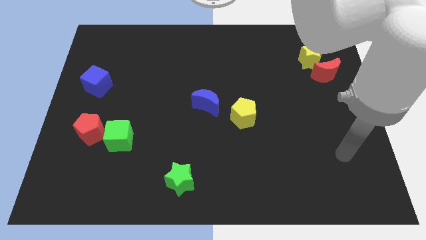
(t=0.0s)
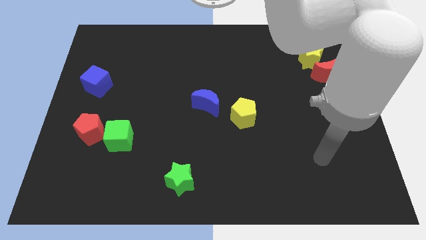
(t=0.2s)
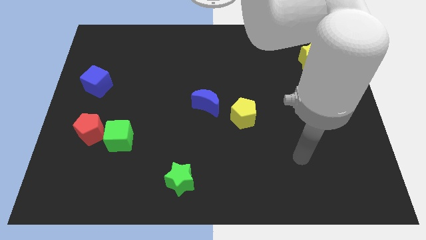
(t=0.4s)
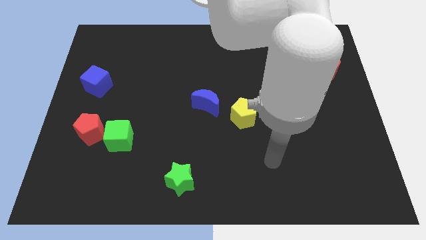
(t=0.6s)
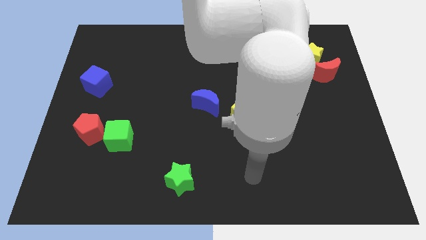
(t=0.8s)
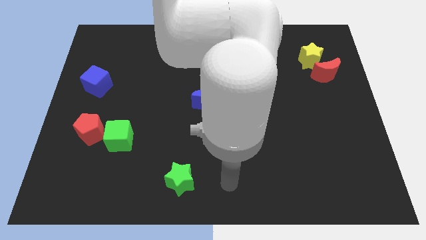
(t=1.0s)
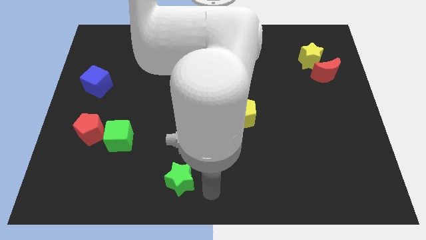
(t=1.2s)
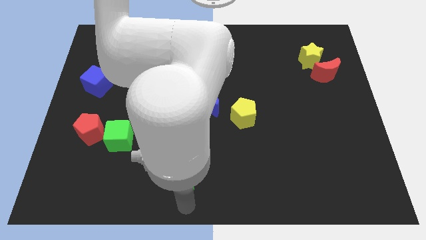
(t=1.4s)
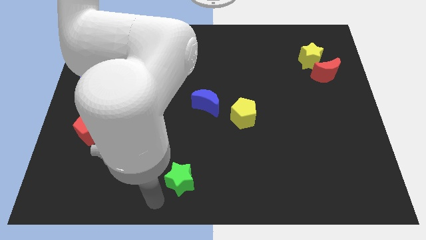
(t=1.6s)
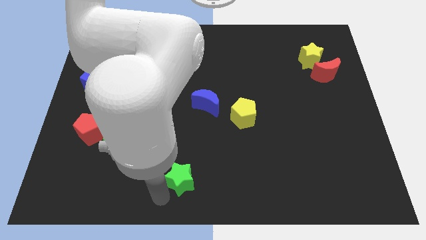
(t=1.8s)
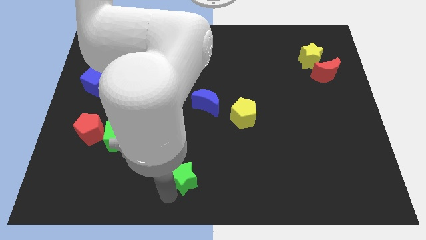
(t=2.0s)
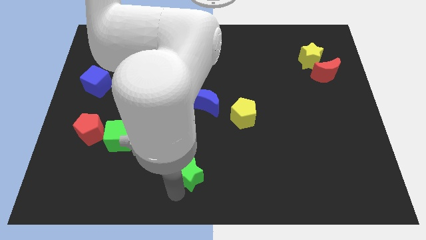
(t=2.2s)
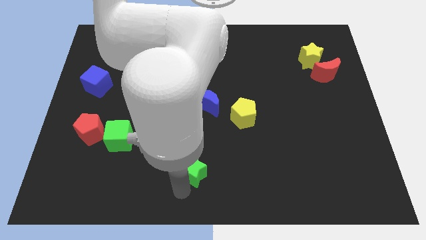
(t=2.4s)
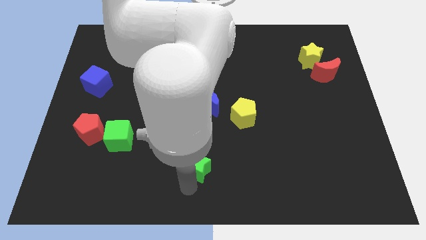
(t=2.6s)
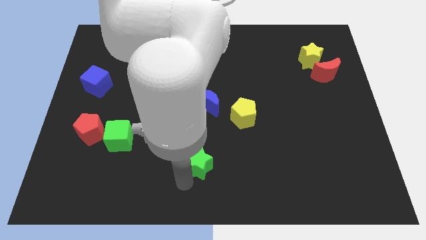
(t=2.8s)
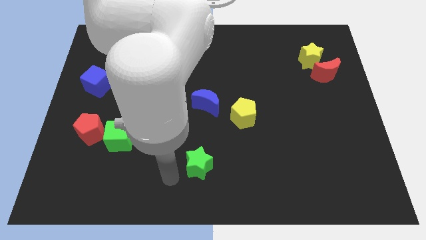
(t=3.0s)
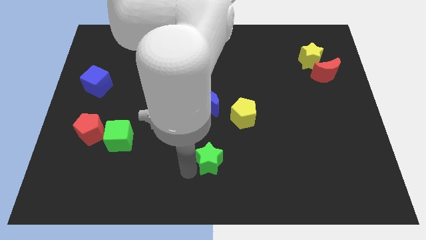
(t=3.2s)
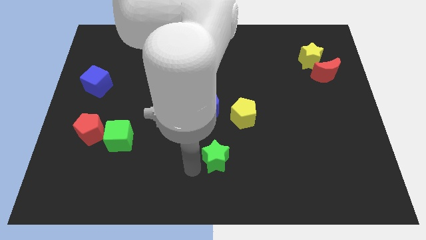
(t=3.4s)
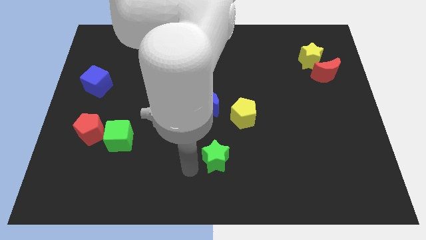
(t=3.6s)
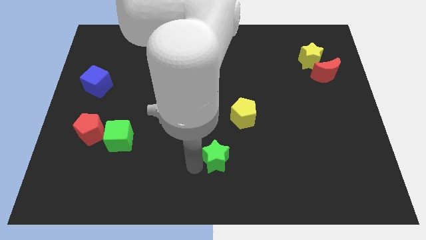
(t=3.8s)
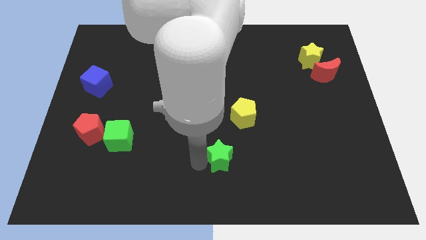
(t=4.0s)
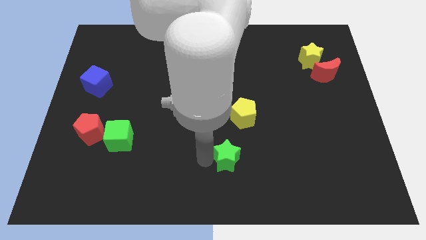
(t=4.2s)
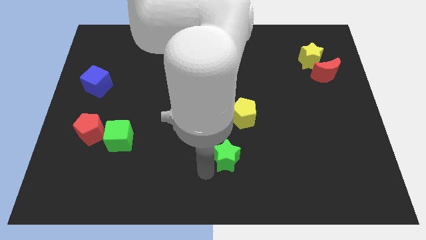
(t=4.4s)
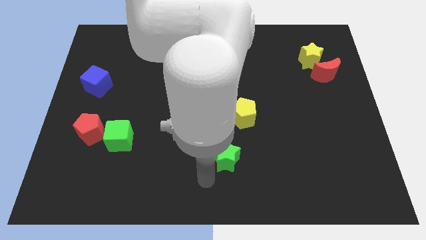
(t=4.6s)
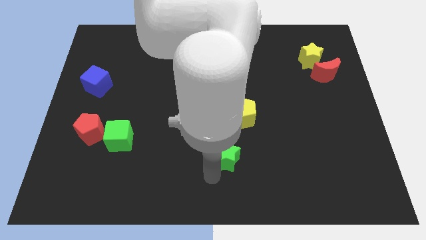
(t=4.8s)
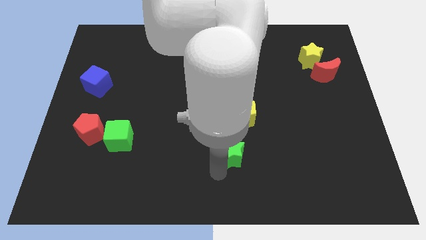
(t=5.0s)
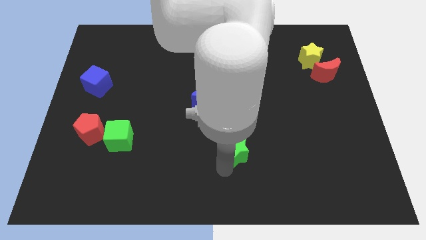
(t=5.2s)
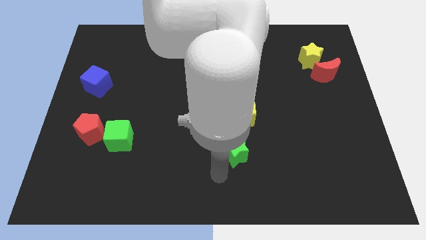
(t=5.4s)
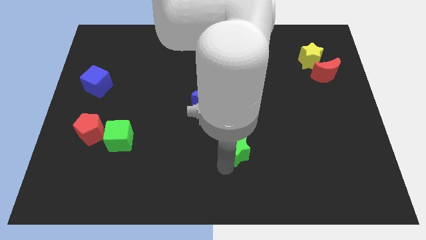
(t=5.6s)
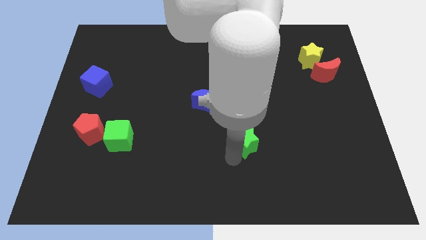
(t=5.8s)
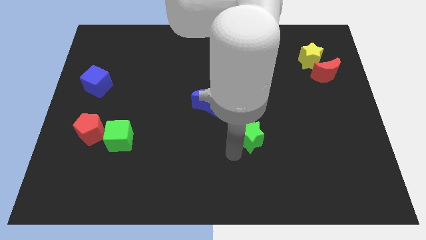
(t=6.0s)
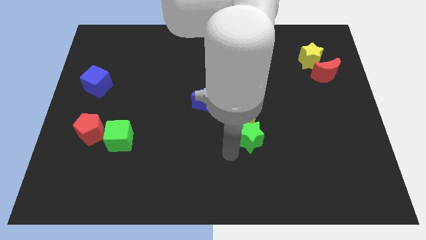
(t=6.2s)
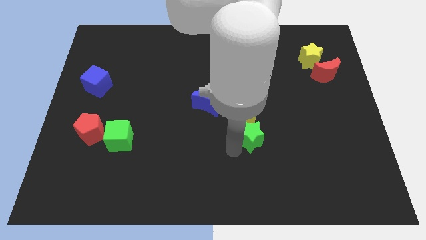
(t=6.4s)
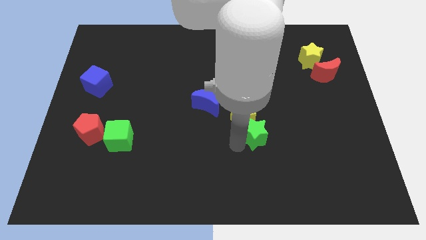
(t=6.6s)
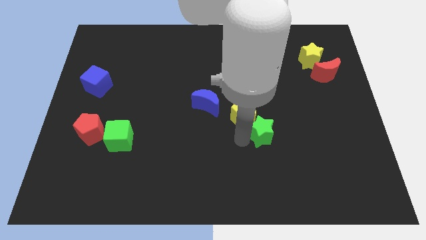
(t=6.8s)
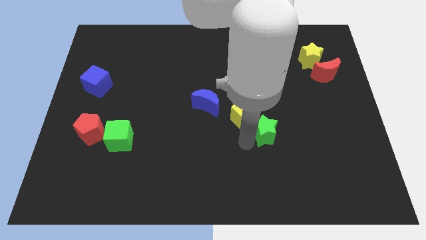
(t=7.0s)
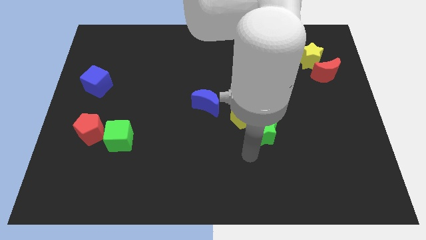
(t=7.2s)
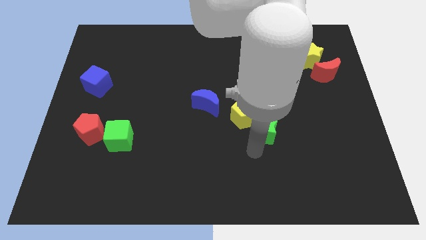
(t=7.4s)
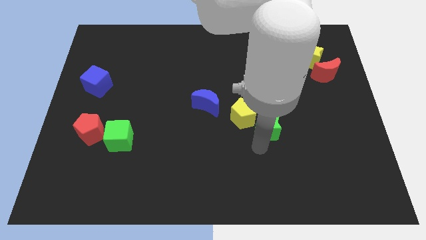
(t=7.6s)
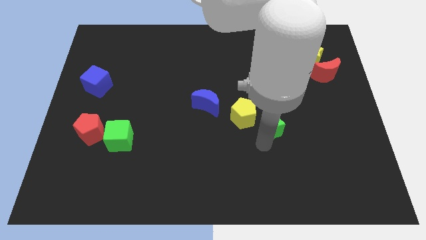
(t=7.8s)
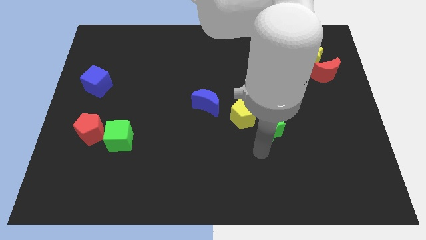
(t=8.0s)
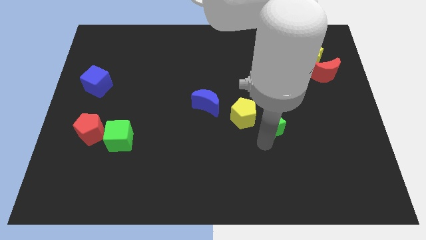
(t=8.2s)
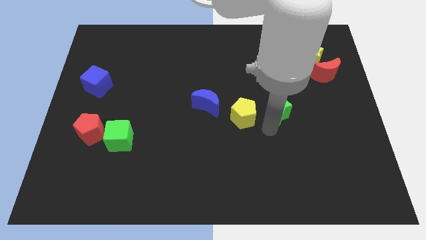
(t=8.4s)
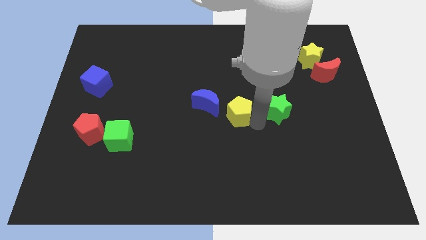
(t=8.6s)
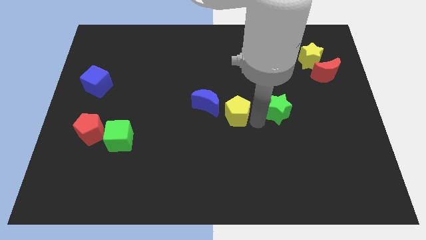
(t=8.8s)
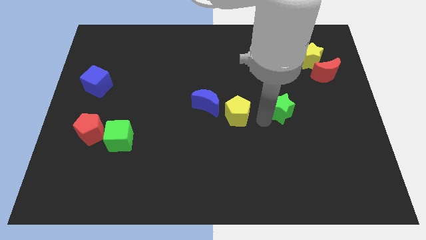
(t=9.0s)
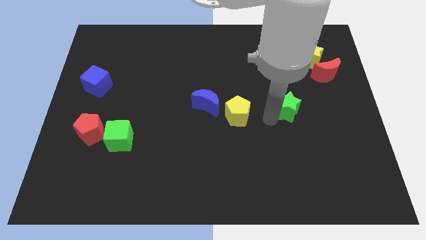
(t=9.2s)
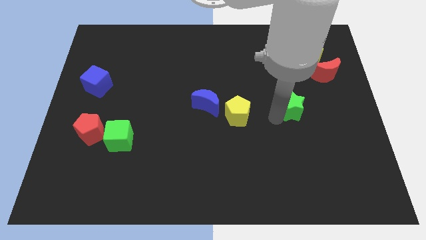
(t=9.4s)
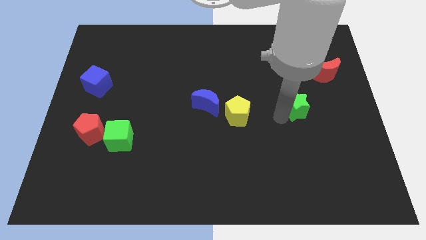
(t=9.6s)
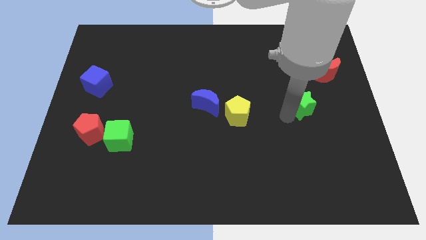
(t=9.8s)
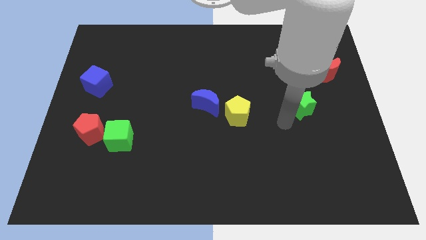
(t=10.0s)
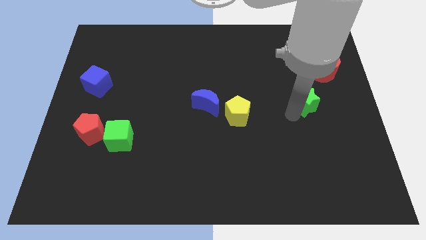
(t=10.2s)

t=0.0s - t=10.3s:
slide the green star to the bottom side of the yellow star

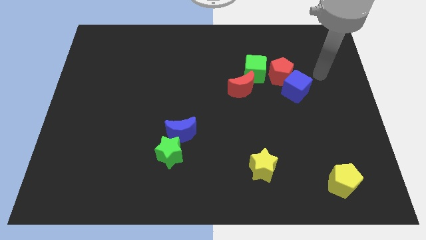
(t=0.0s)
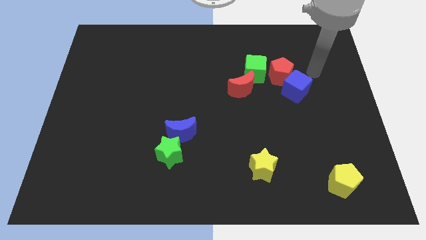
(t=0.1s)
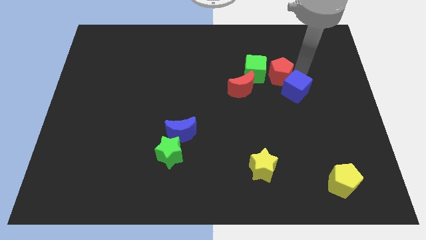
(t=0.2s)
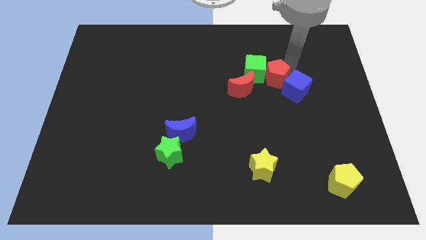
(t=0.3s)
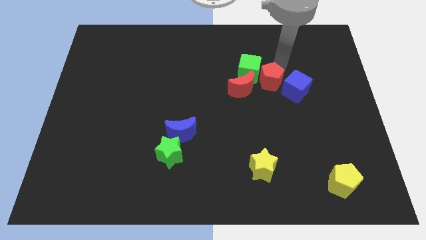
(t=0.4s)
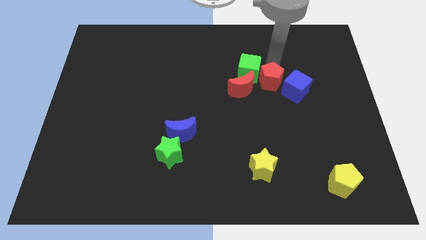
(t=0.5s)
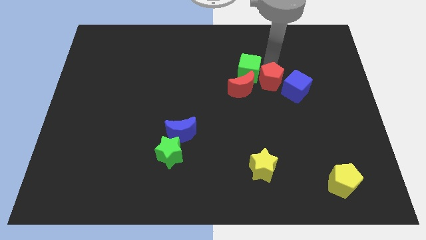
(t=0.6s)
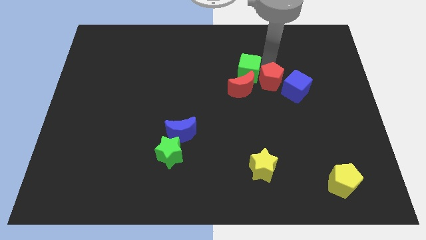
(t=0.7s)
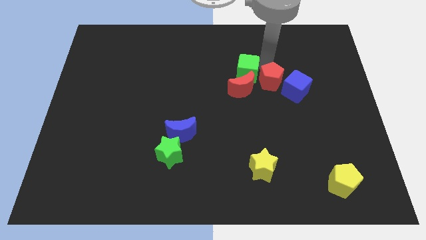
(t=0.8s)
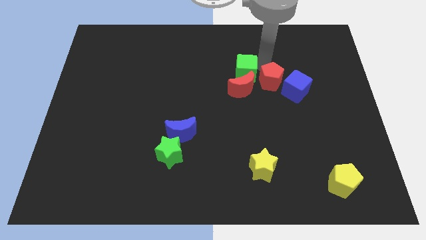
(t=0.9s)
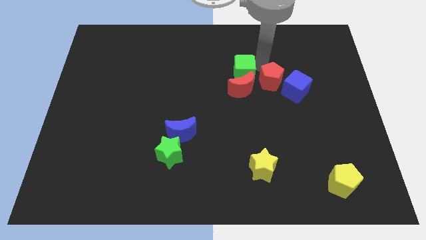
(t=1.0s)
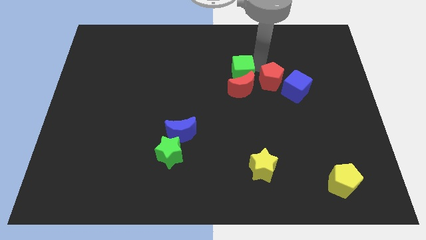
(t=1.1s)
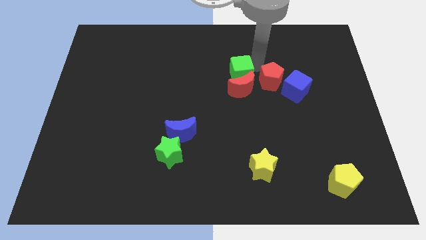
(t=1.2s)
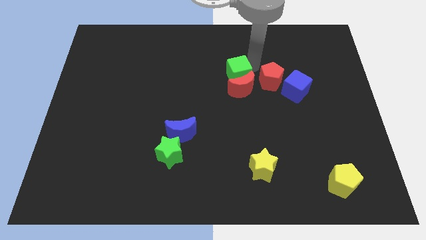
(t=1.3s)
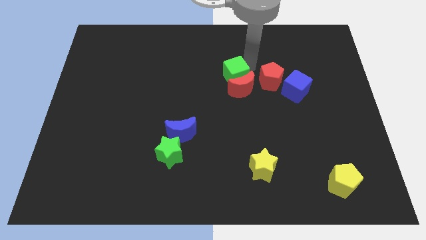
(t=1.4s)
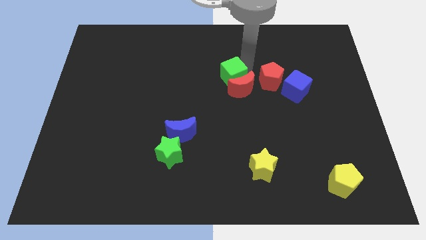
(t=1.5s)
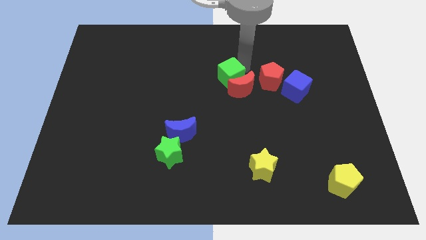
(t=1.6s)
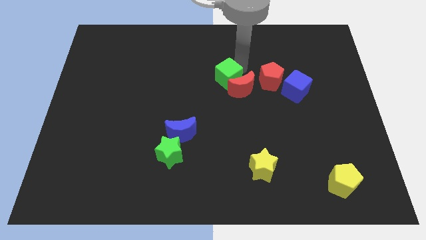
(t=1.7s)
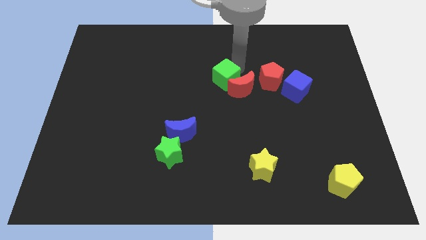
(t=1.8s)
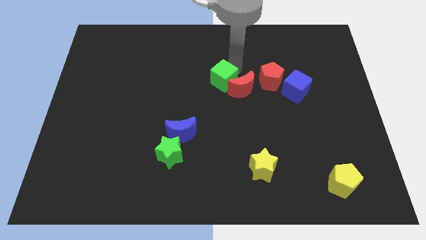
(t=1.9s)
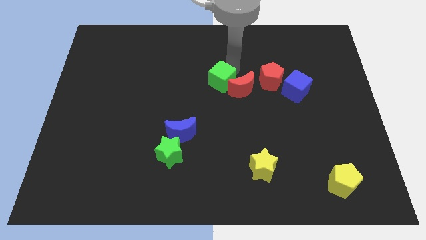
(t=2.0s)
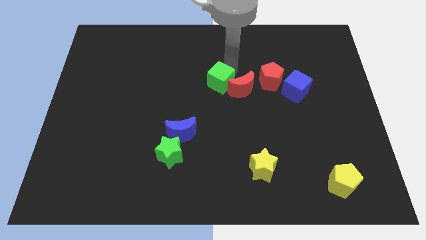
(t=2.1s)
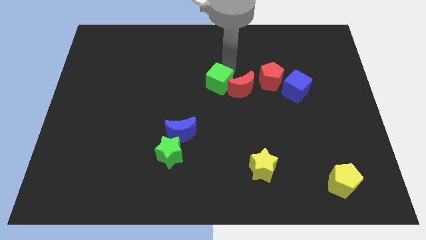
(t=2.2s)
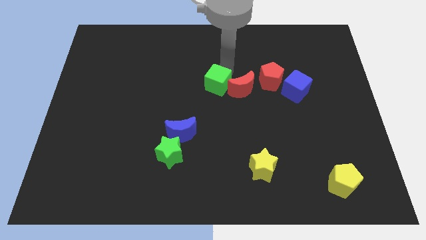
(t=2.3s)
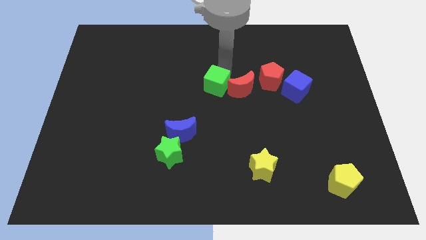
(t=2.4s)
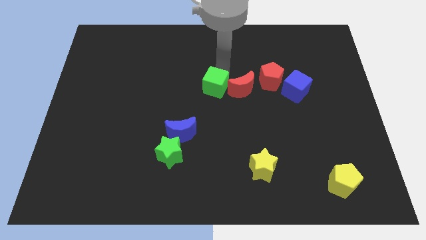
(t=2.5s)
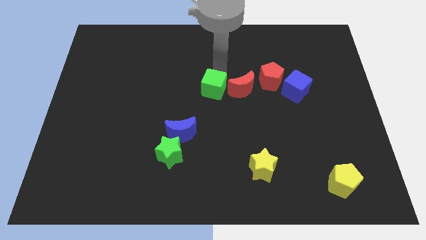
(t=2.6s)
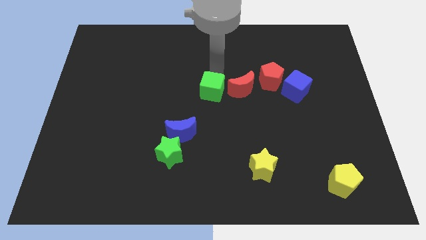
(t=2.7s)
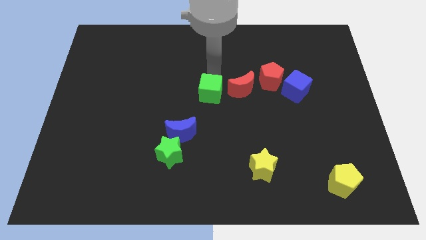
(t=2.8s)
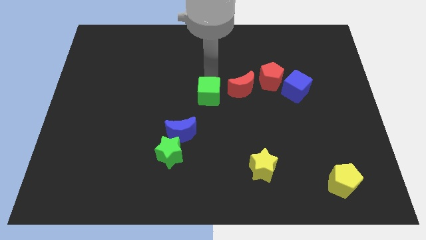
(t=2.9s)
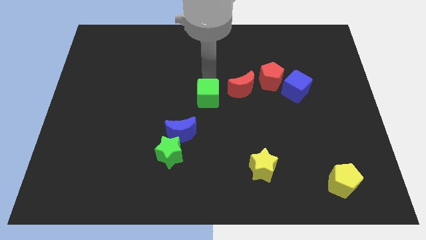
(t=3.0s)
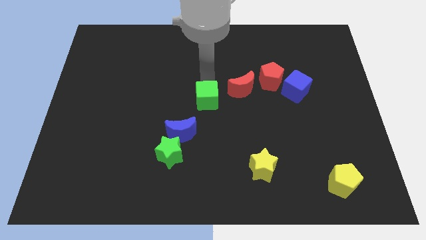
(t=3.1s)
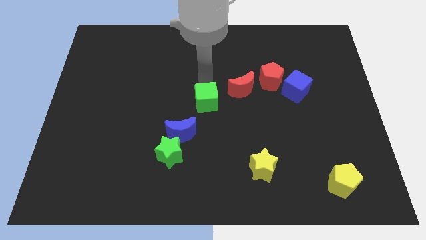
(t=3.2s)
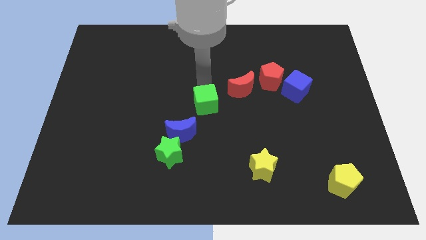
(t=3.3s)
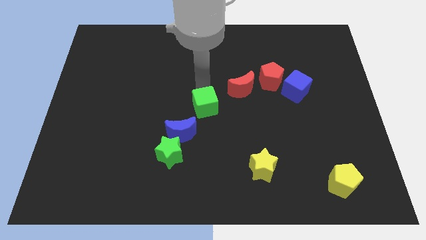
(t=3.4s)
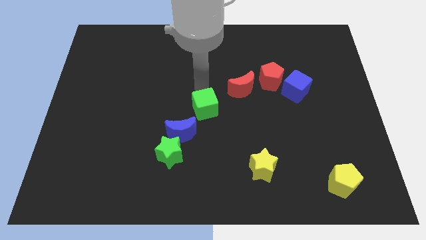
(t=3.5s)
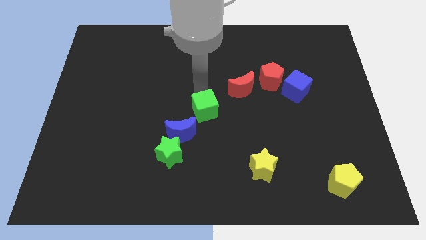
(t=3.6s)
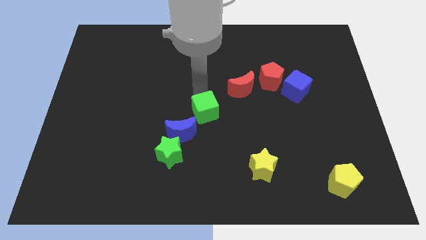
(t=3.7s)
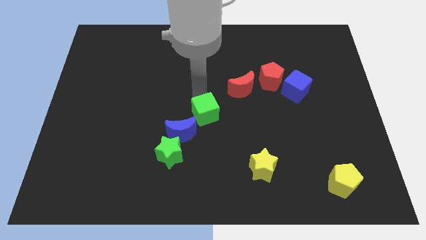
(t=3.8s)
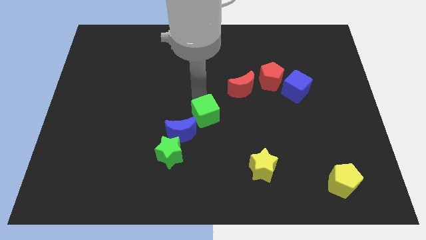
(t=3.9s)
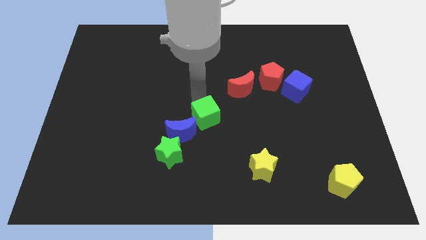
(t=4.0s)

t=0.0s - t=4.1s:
move the green cube diagonally up and to the right of the green star
